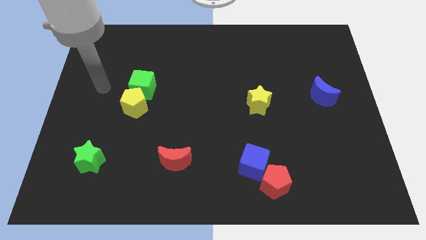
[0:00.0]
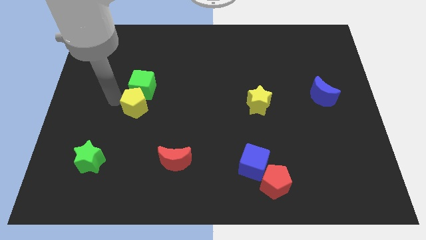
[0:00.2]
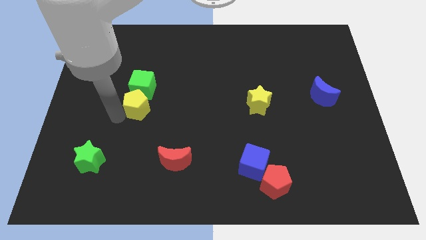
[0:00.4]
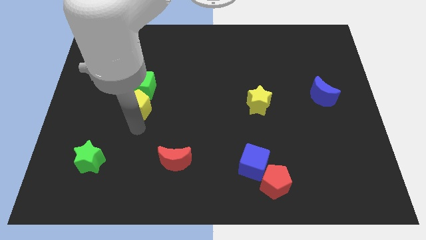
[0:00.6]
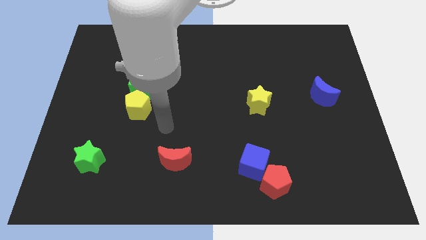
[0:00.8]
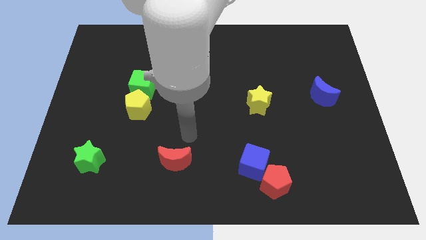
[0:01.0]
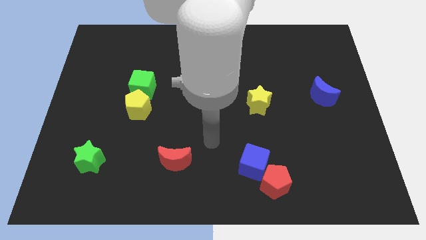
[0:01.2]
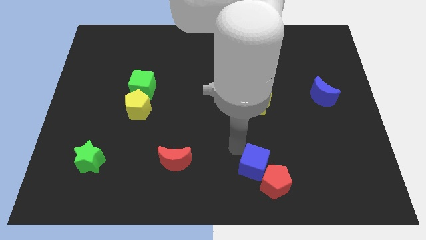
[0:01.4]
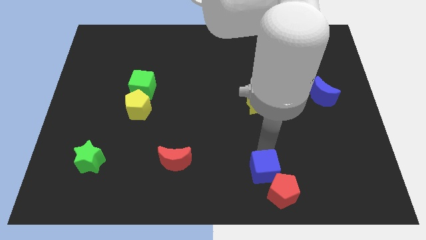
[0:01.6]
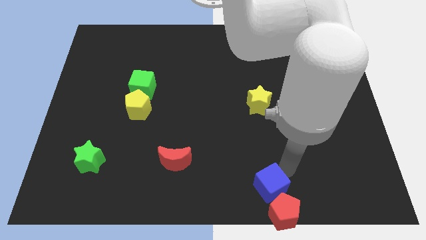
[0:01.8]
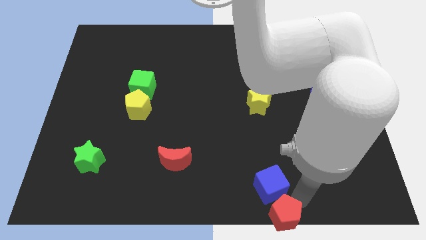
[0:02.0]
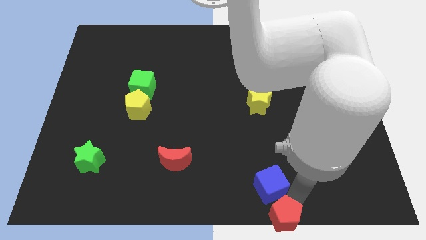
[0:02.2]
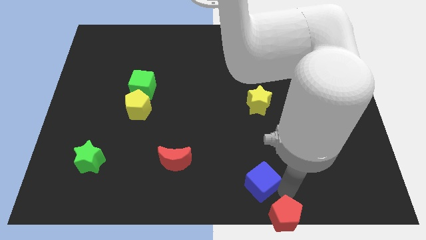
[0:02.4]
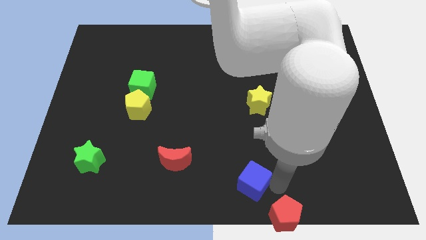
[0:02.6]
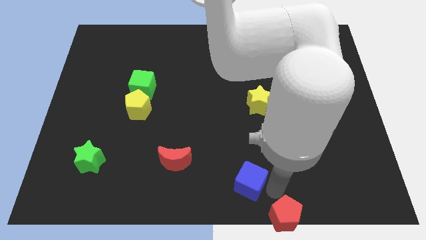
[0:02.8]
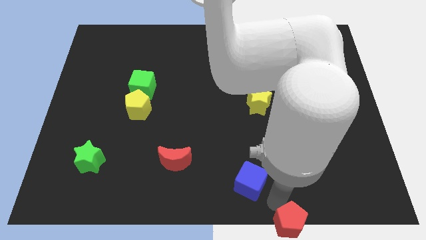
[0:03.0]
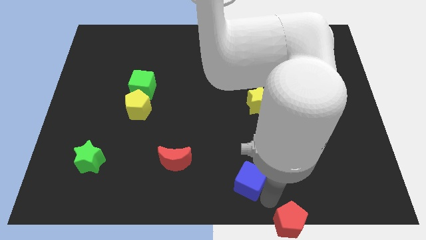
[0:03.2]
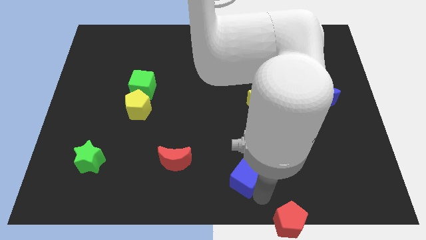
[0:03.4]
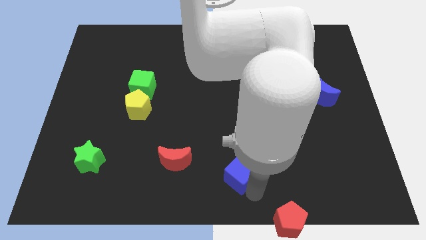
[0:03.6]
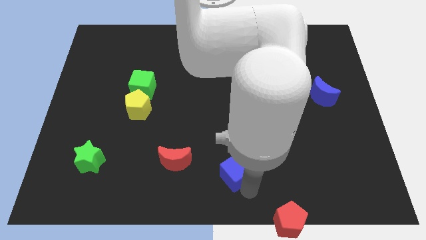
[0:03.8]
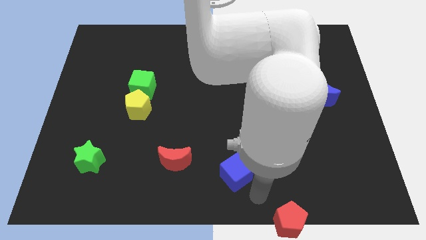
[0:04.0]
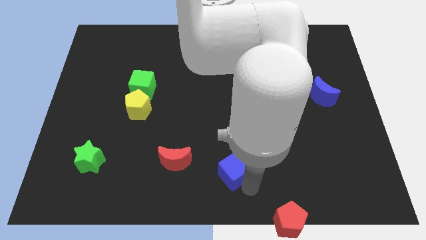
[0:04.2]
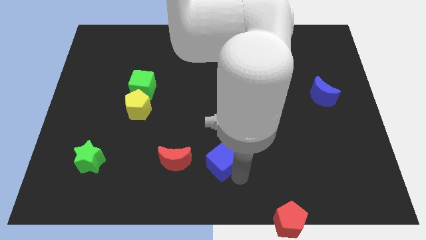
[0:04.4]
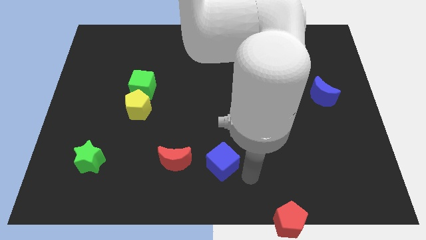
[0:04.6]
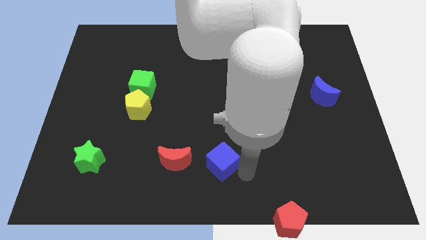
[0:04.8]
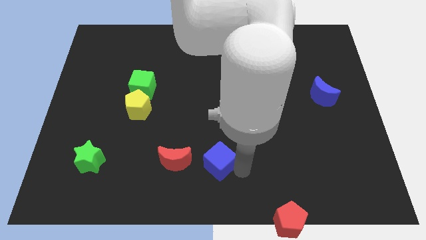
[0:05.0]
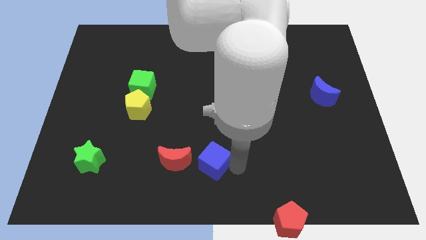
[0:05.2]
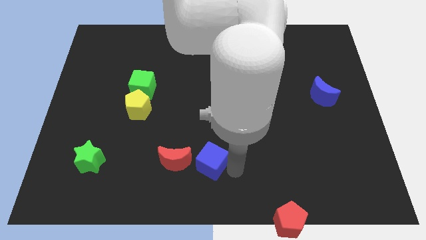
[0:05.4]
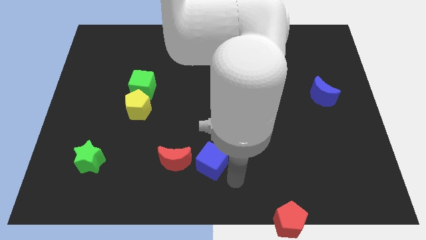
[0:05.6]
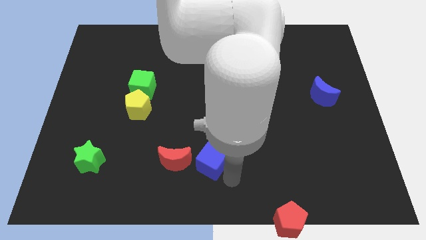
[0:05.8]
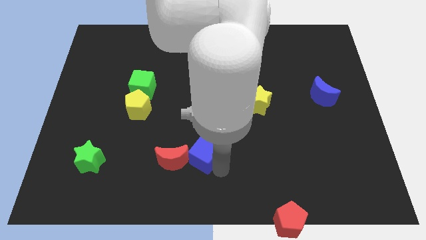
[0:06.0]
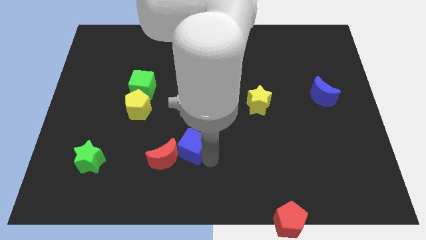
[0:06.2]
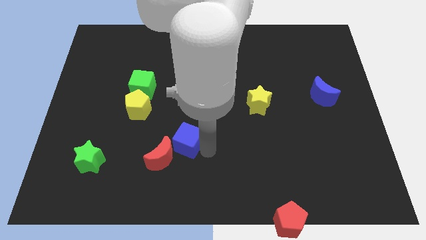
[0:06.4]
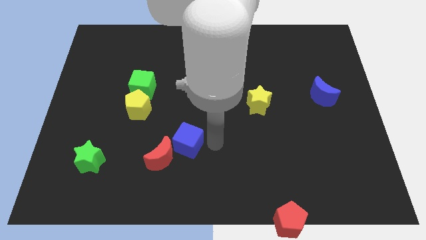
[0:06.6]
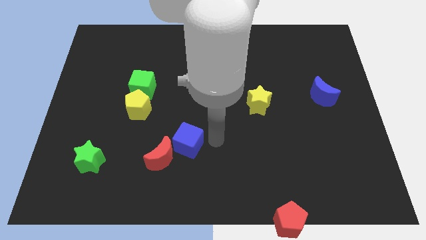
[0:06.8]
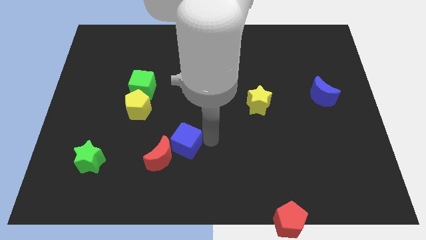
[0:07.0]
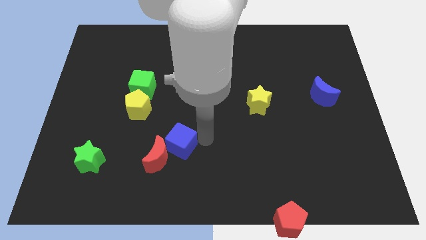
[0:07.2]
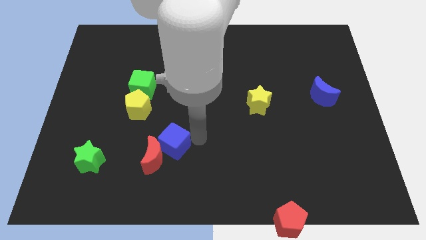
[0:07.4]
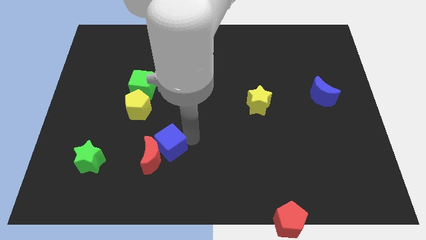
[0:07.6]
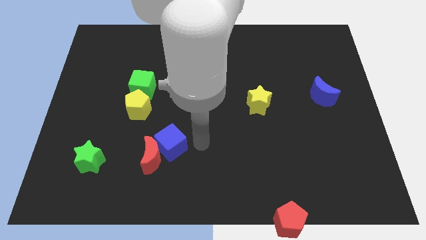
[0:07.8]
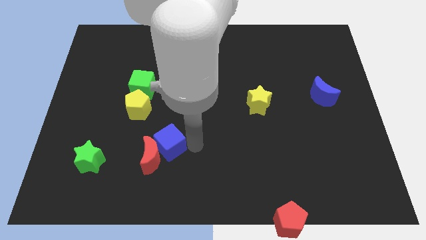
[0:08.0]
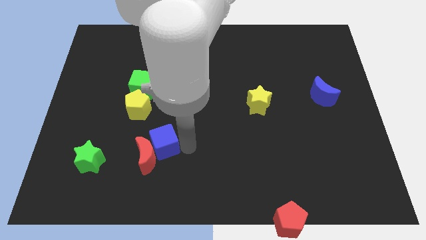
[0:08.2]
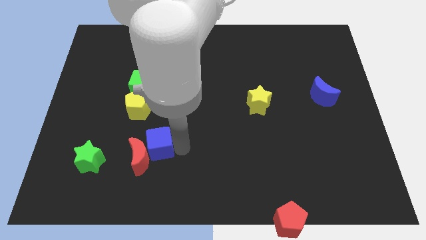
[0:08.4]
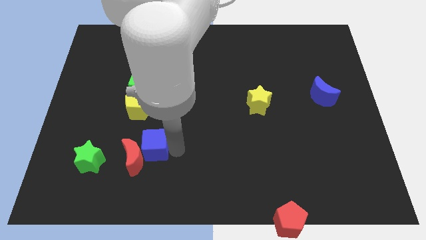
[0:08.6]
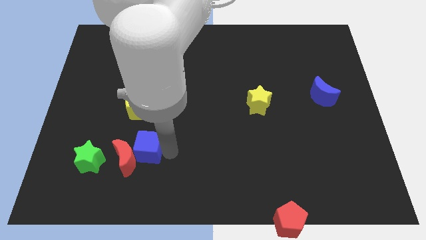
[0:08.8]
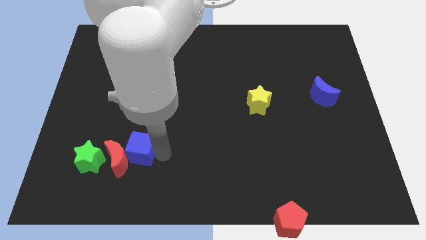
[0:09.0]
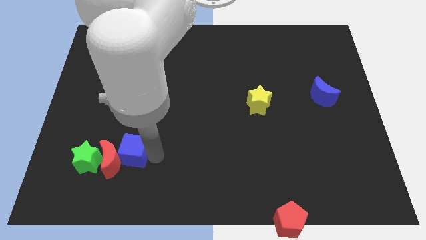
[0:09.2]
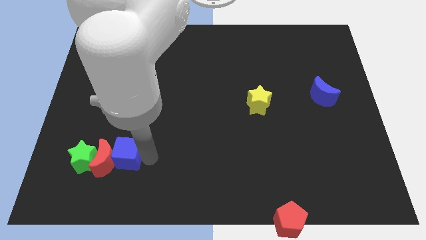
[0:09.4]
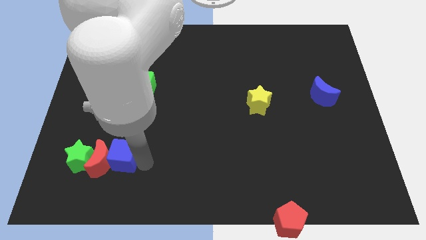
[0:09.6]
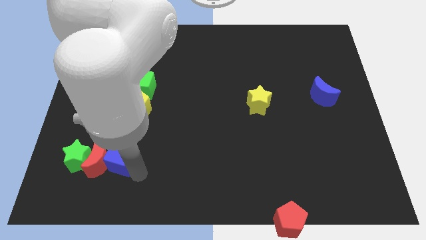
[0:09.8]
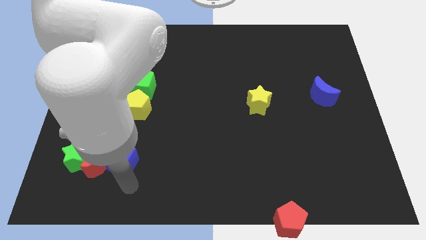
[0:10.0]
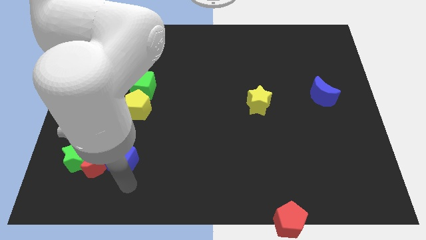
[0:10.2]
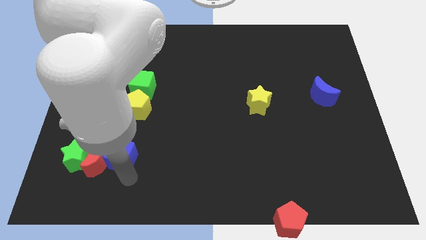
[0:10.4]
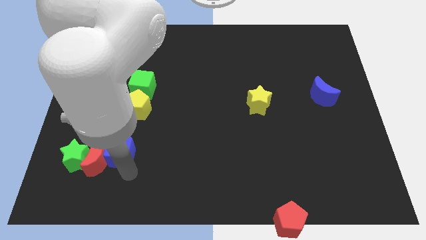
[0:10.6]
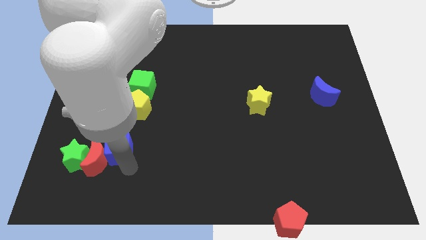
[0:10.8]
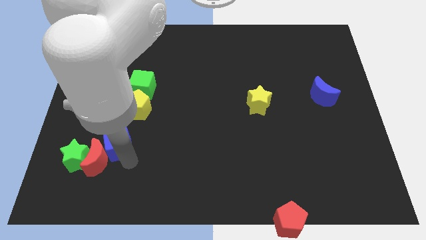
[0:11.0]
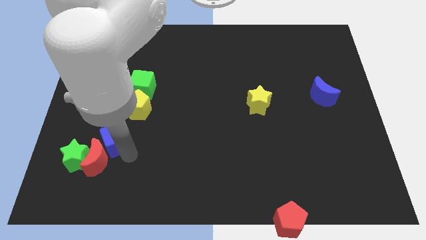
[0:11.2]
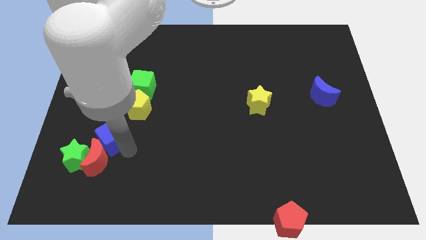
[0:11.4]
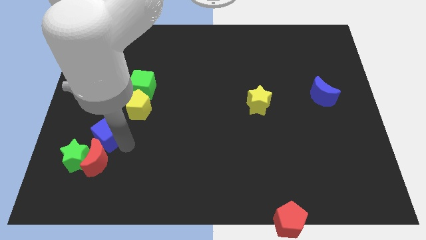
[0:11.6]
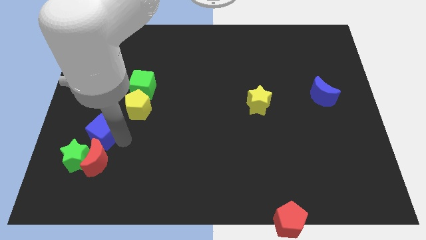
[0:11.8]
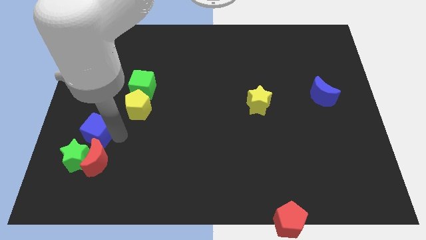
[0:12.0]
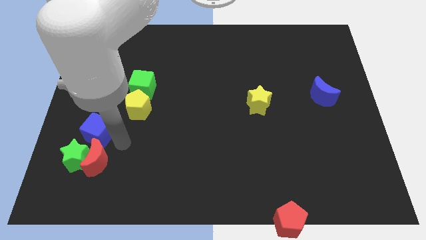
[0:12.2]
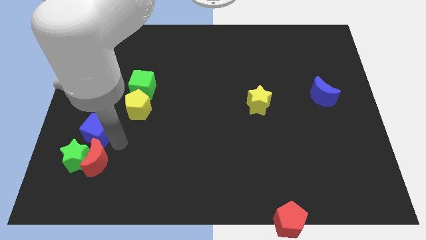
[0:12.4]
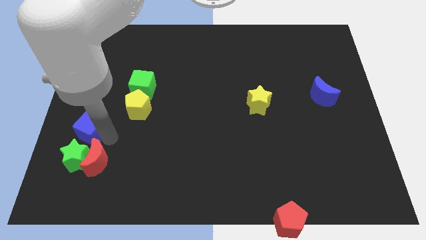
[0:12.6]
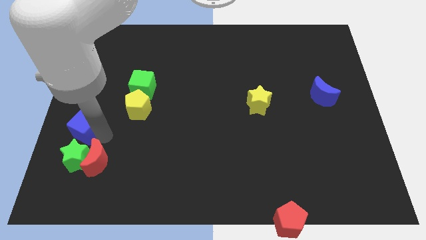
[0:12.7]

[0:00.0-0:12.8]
put the blue cube to the center left
